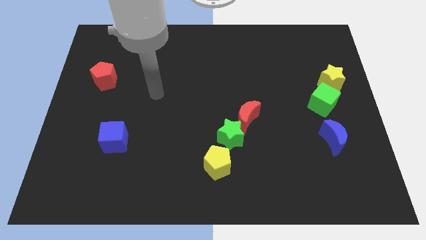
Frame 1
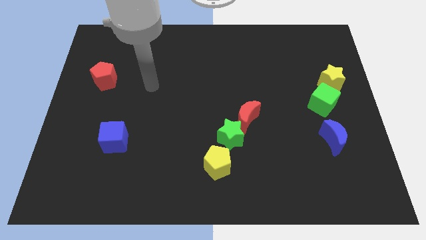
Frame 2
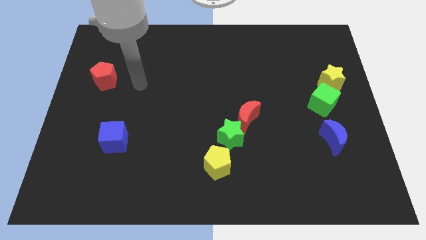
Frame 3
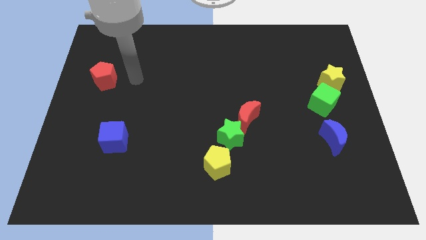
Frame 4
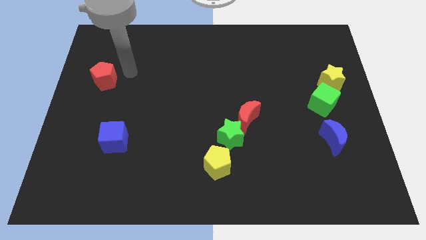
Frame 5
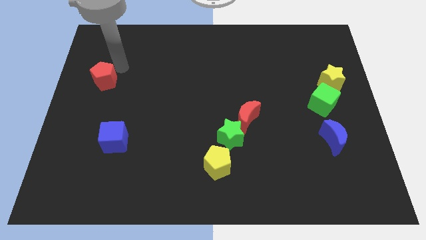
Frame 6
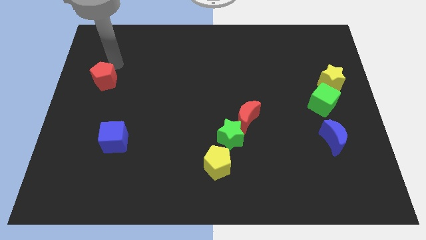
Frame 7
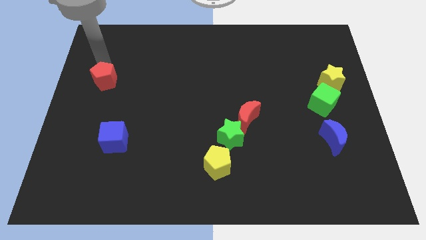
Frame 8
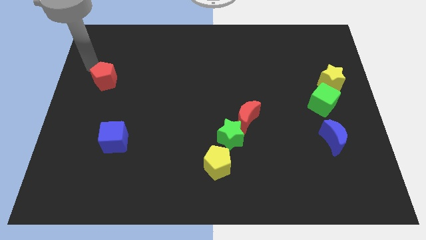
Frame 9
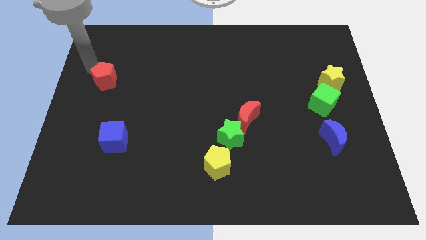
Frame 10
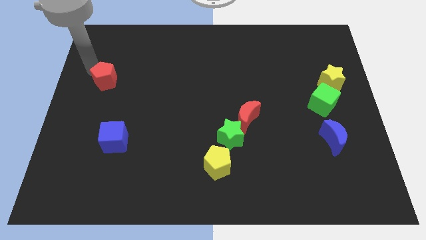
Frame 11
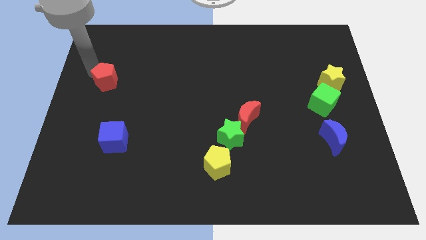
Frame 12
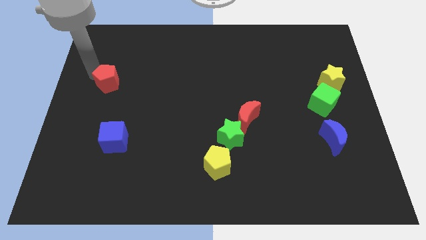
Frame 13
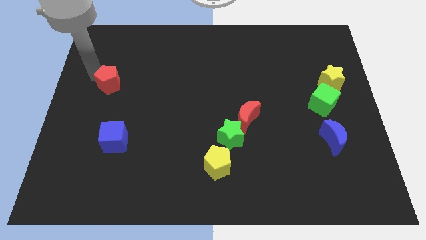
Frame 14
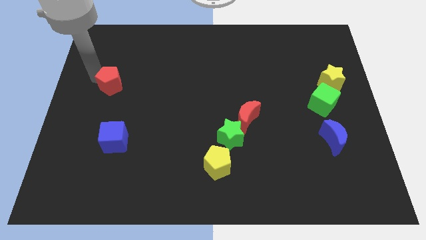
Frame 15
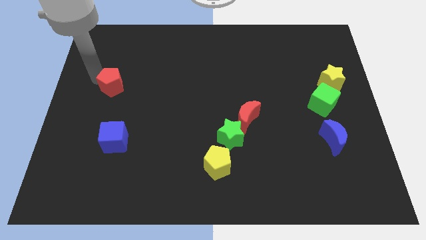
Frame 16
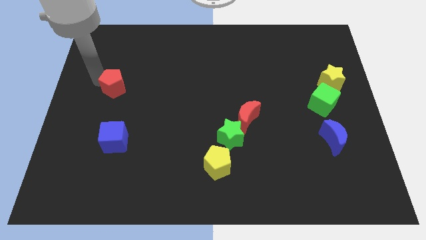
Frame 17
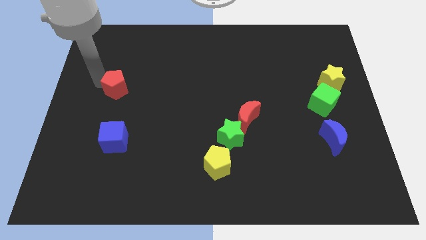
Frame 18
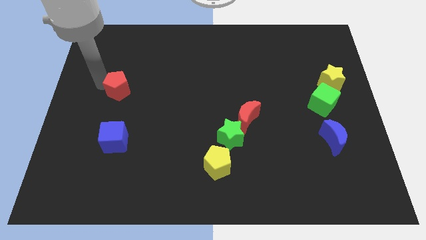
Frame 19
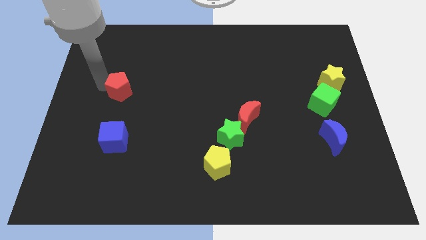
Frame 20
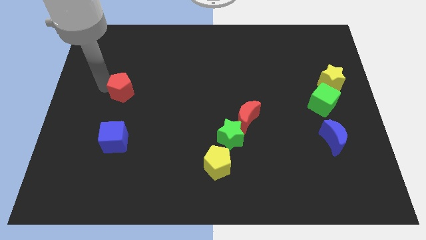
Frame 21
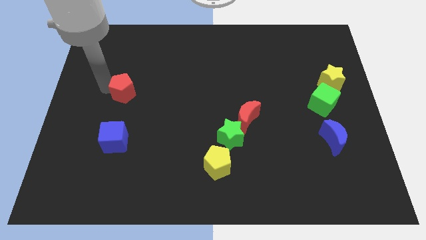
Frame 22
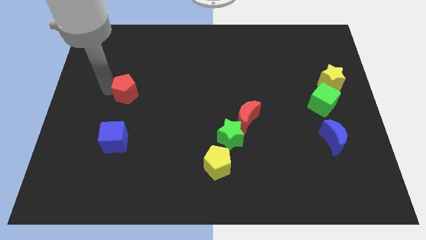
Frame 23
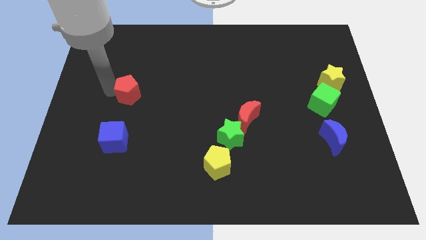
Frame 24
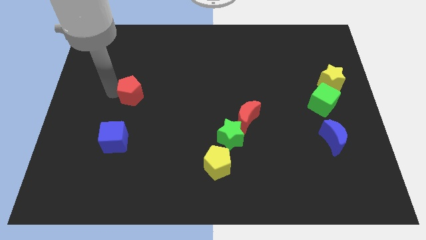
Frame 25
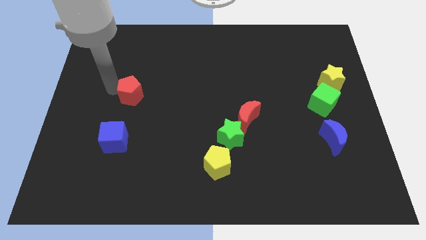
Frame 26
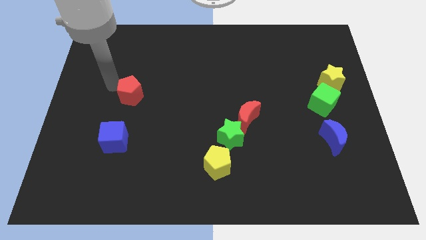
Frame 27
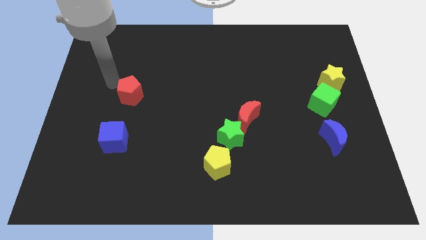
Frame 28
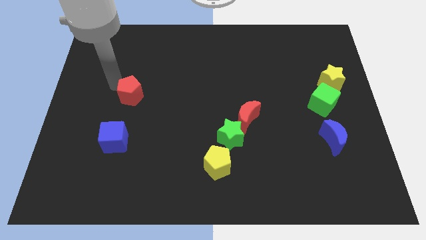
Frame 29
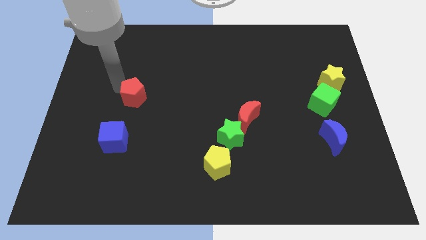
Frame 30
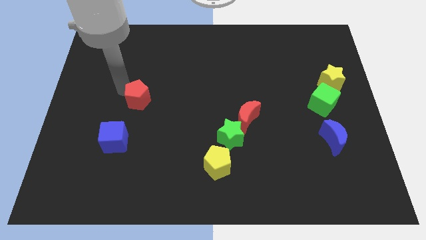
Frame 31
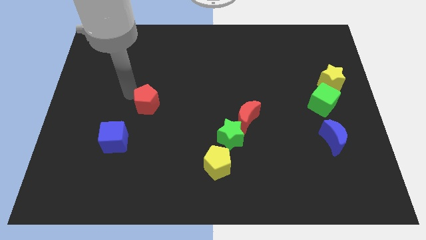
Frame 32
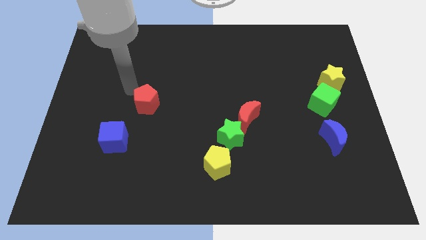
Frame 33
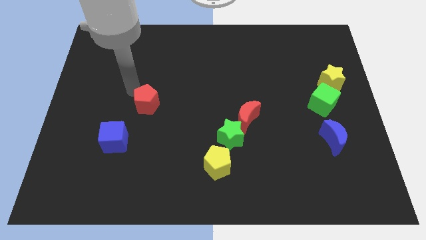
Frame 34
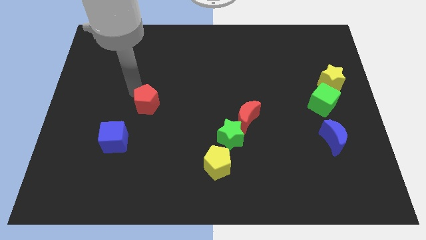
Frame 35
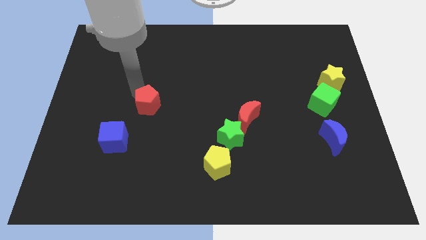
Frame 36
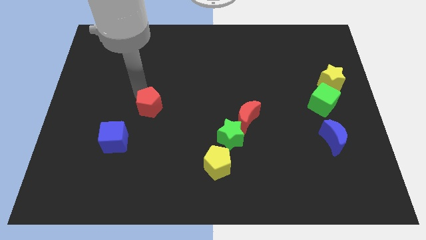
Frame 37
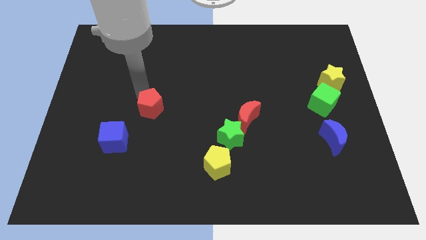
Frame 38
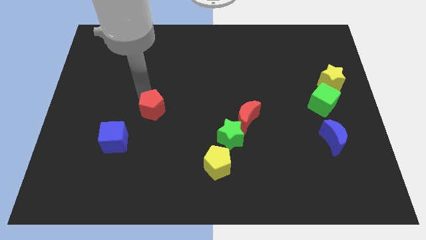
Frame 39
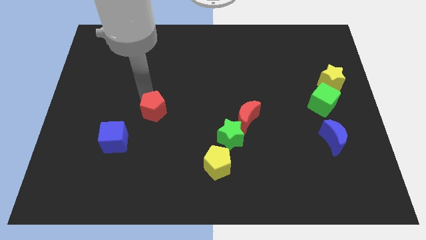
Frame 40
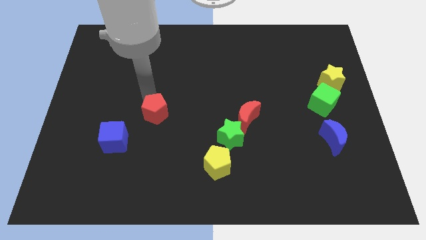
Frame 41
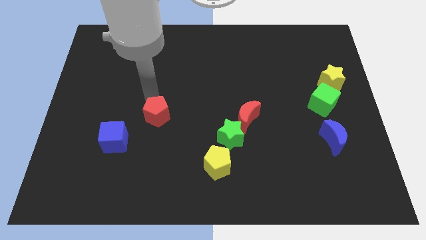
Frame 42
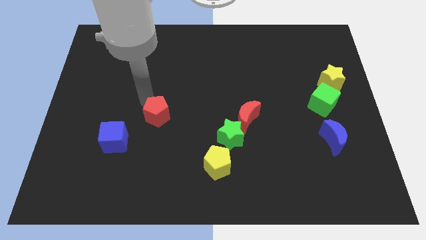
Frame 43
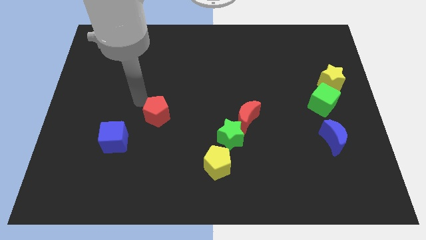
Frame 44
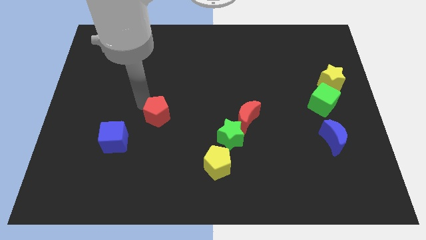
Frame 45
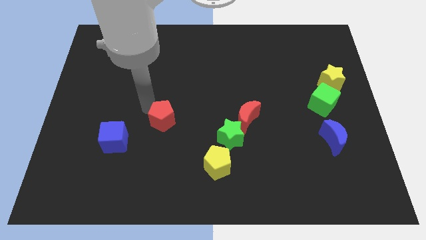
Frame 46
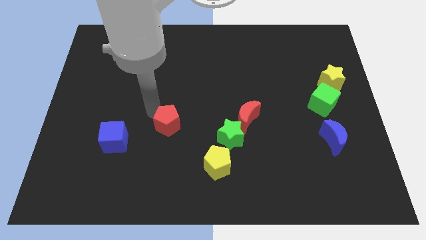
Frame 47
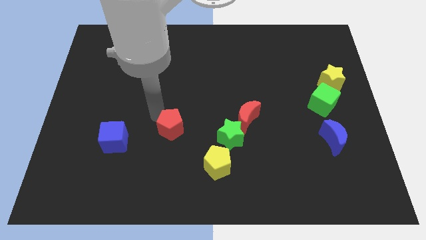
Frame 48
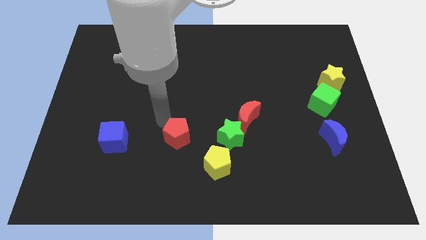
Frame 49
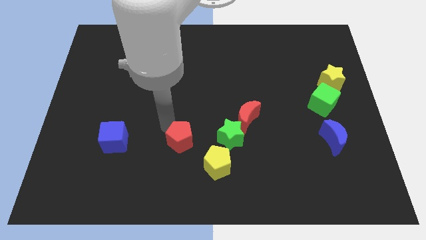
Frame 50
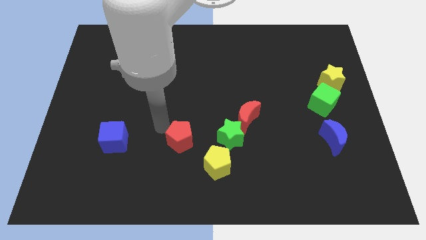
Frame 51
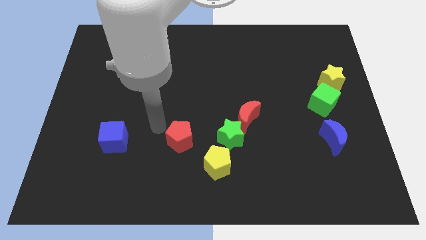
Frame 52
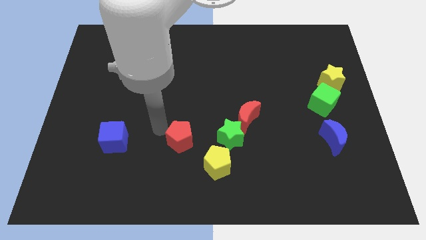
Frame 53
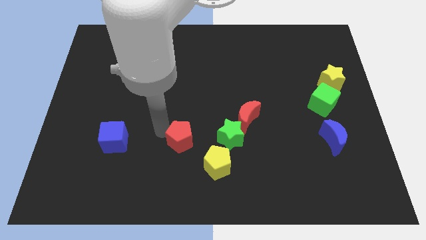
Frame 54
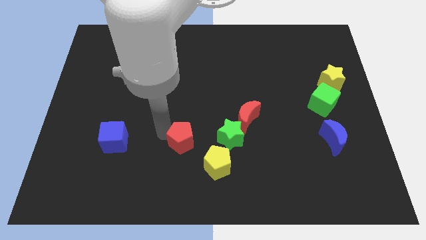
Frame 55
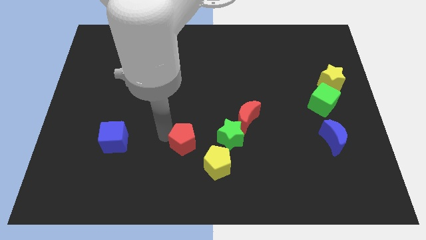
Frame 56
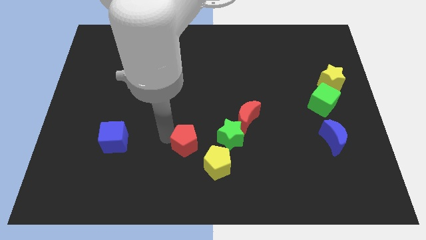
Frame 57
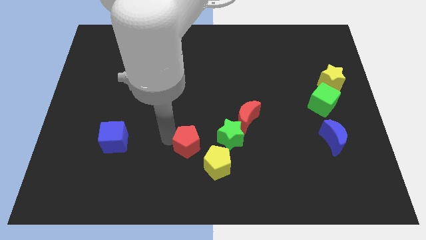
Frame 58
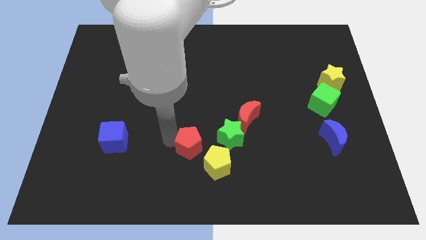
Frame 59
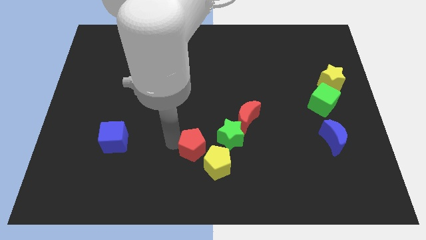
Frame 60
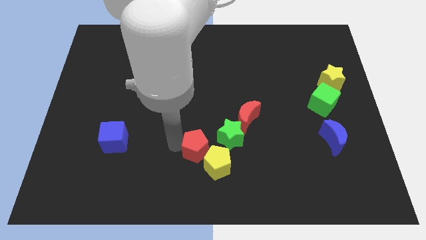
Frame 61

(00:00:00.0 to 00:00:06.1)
slide the red pentagon close to the yellow pentagon
